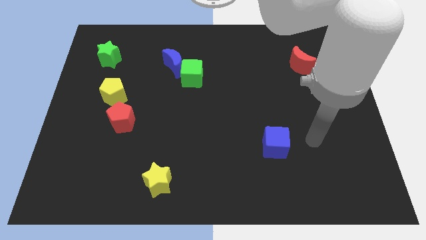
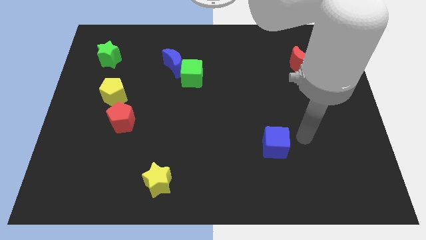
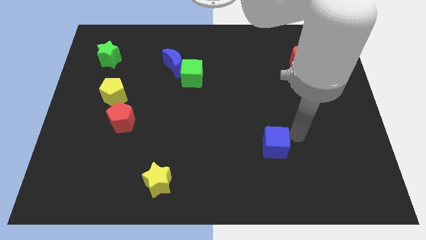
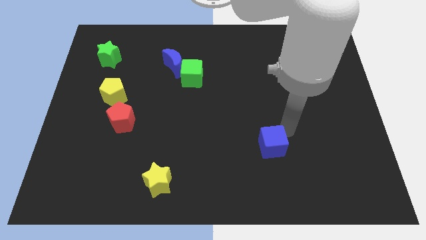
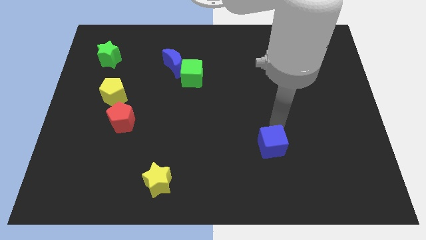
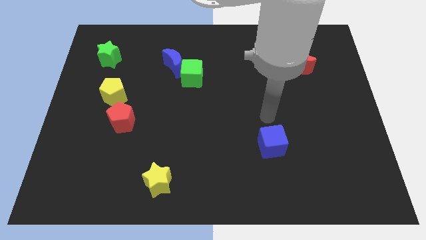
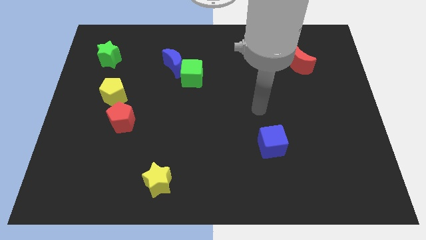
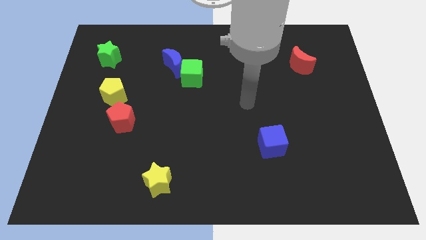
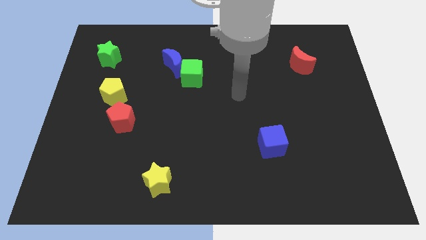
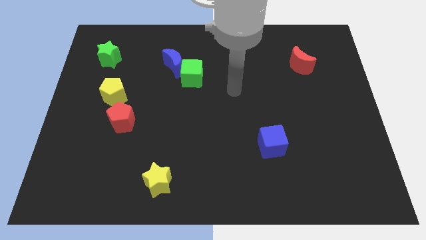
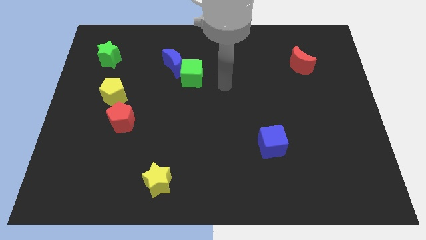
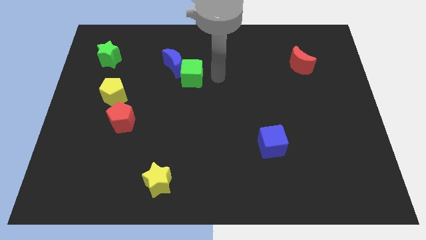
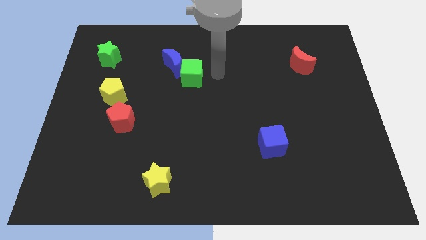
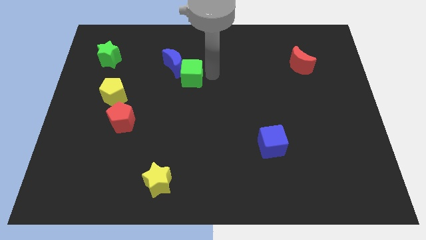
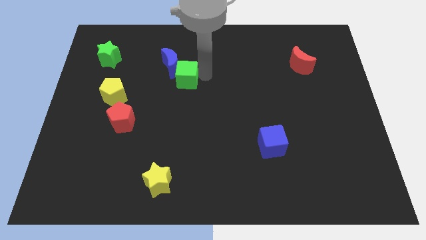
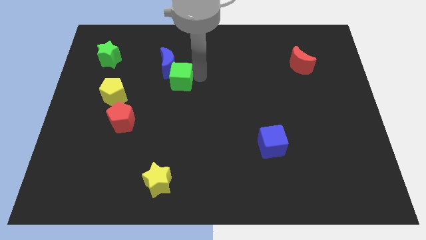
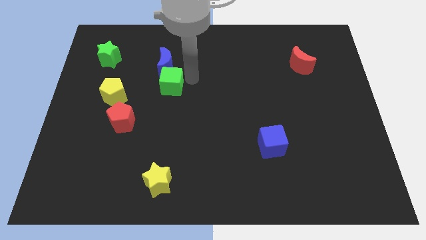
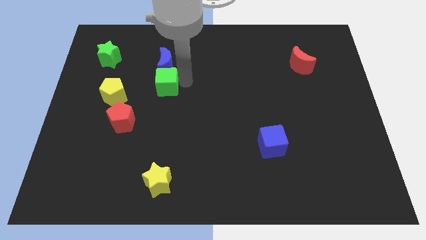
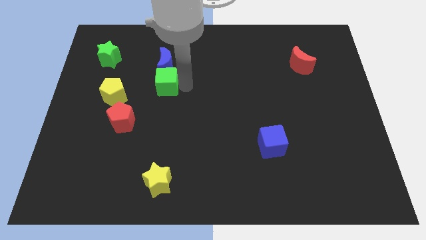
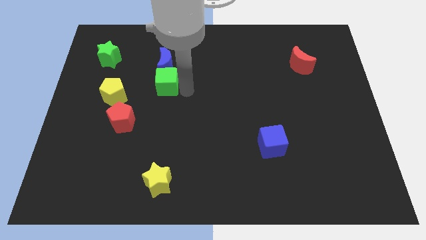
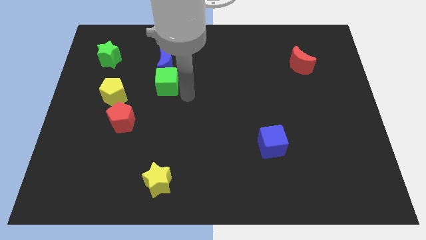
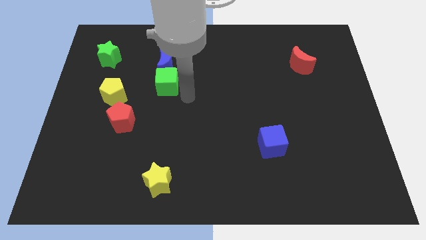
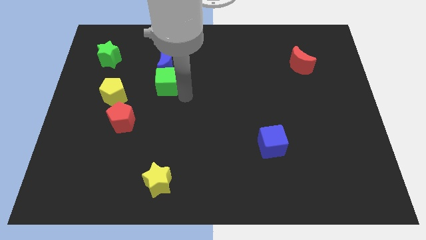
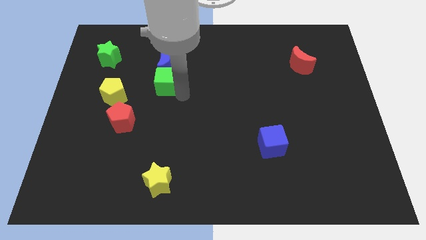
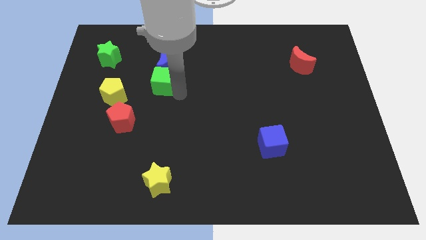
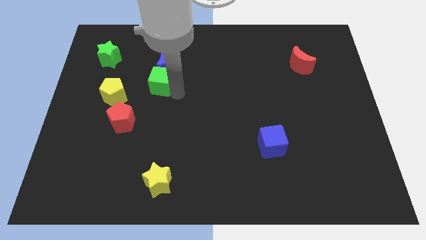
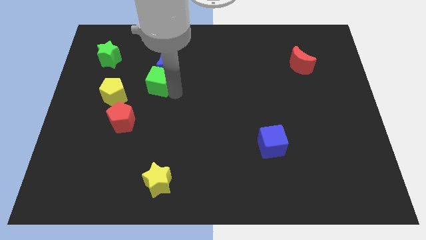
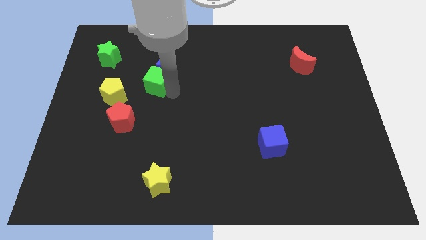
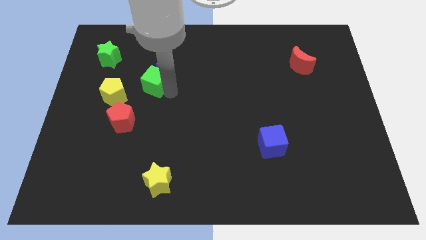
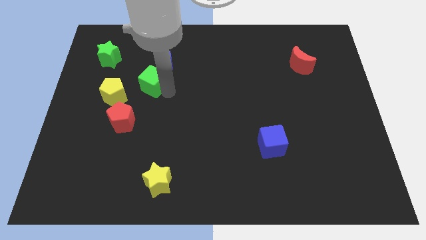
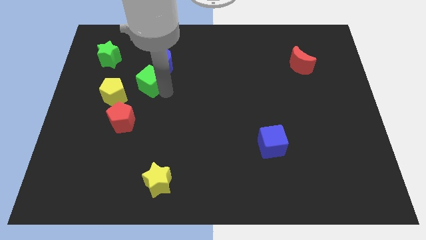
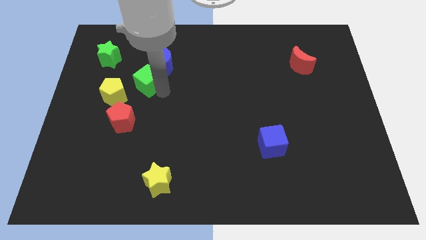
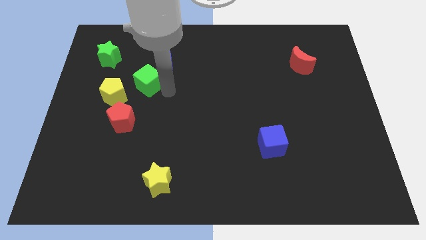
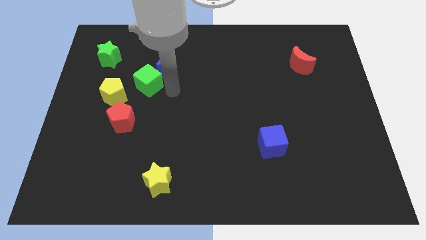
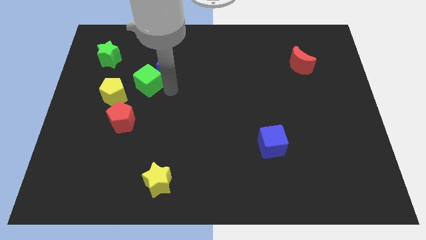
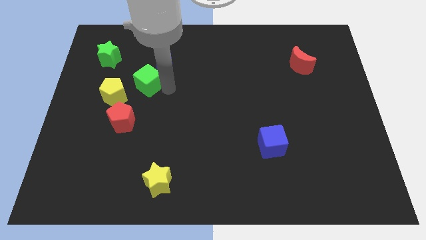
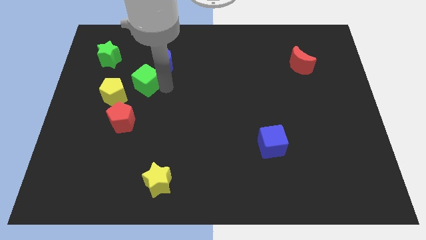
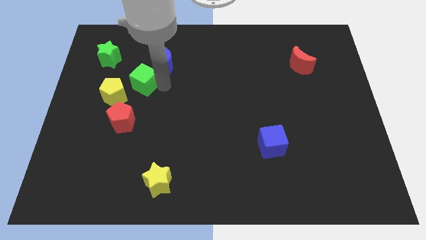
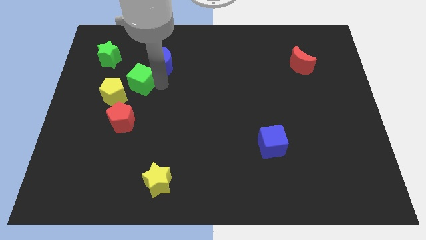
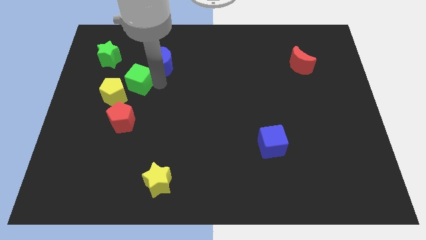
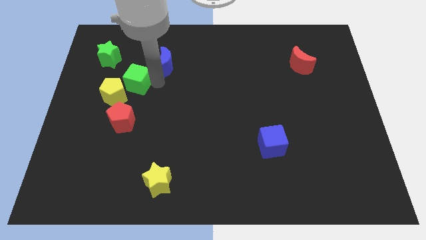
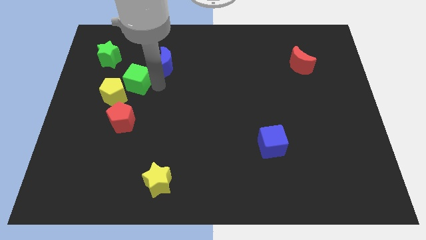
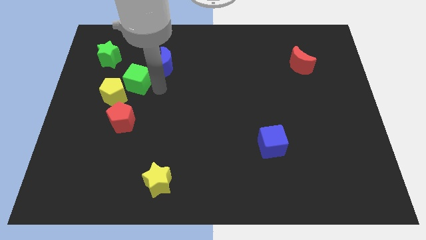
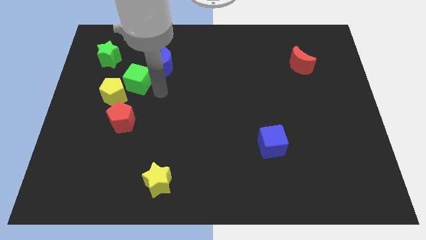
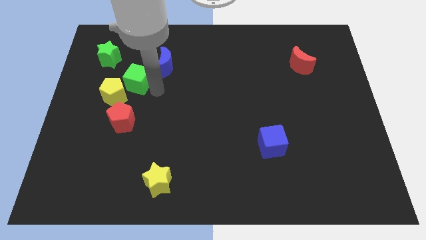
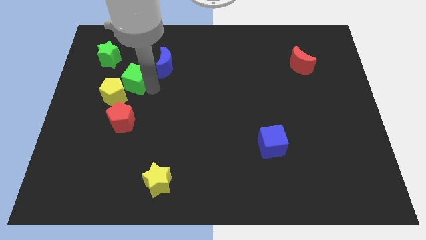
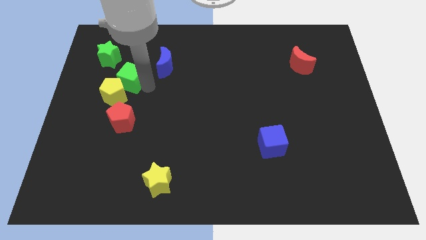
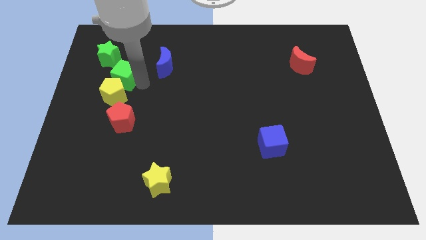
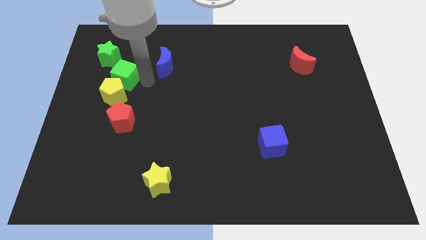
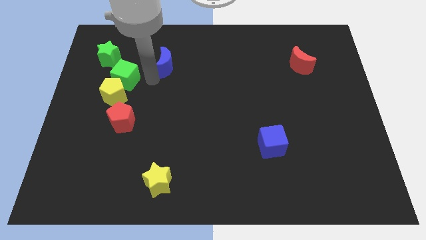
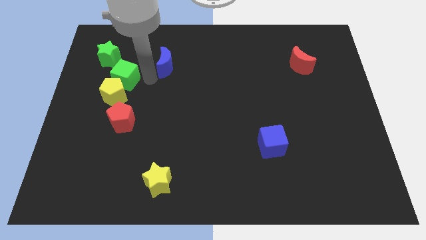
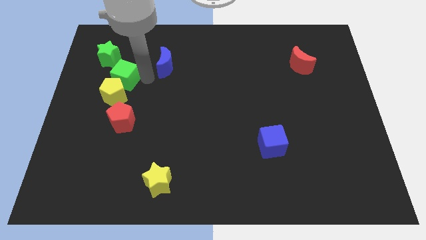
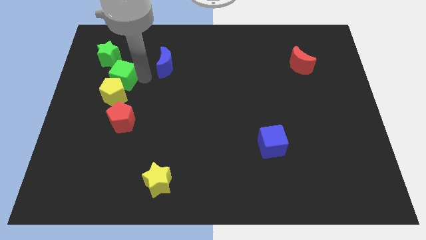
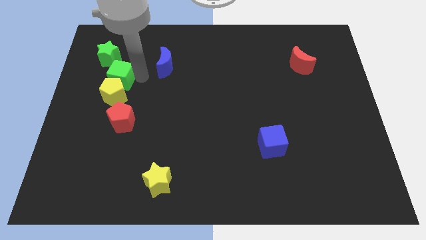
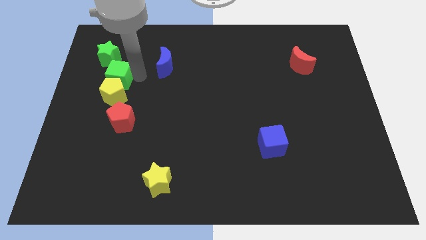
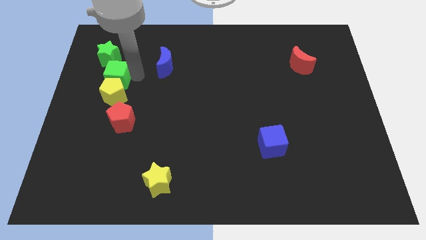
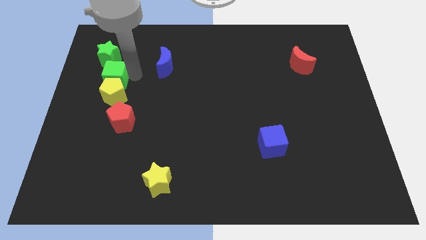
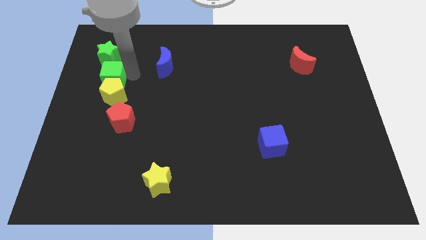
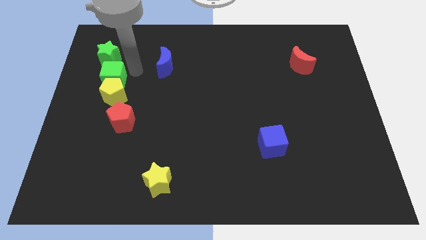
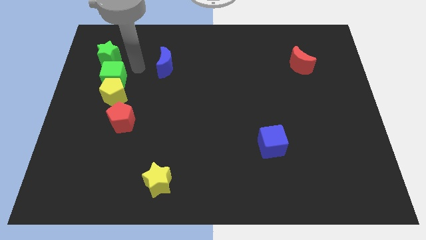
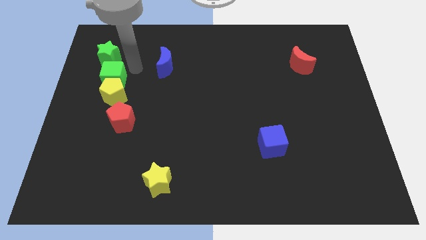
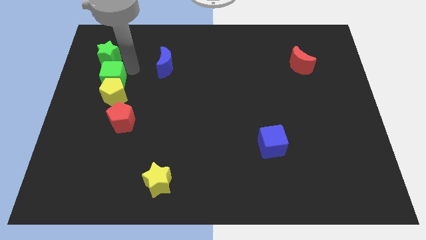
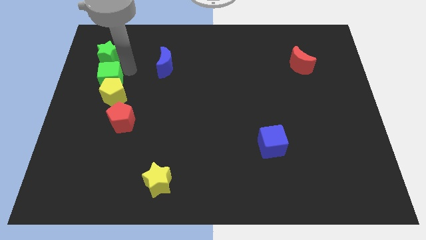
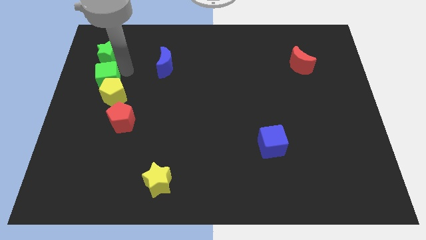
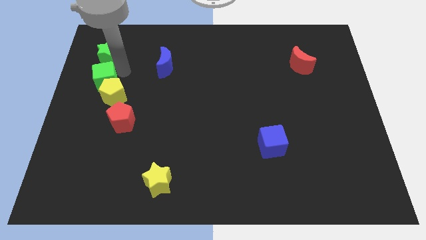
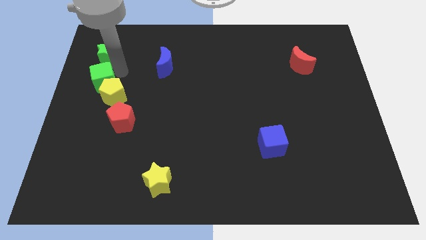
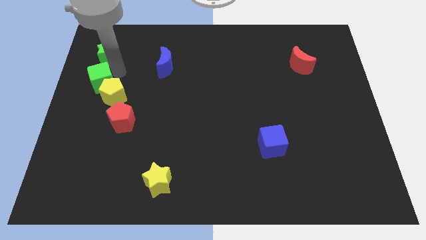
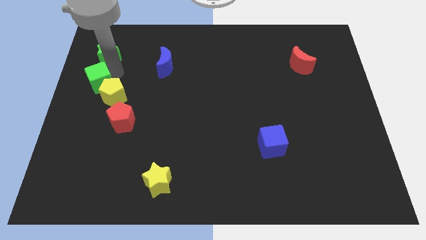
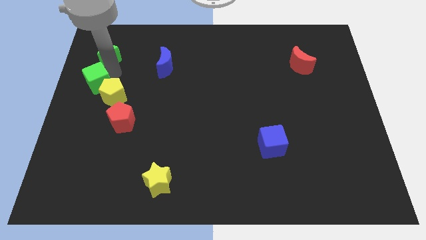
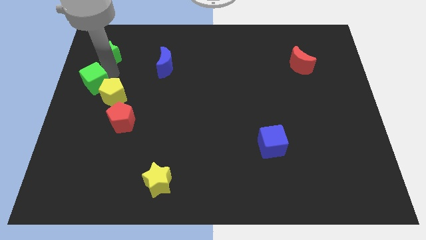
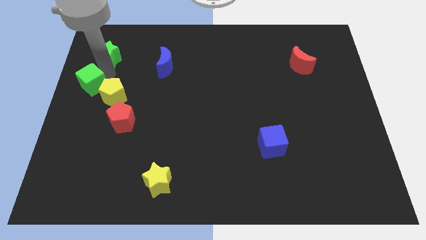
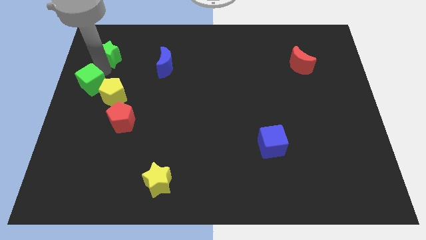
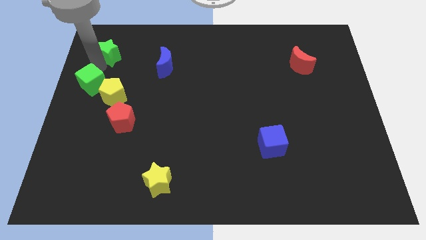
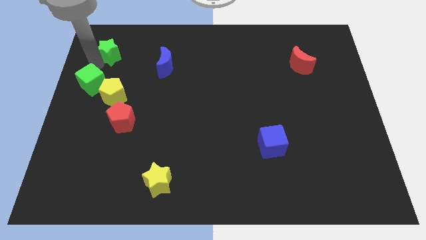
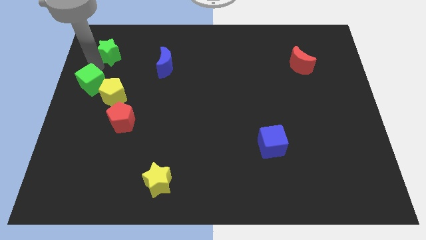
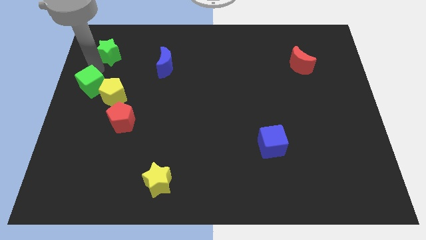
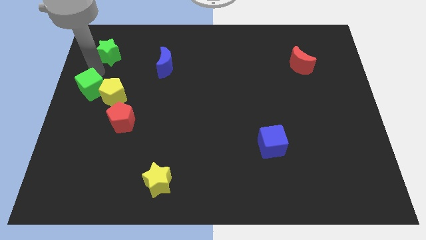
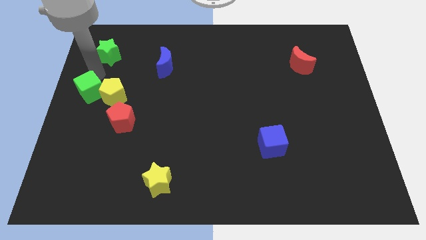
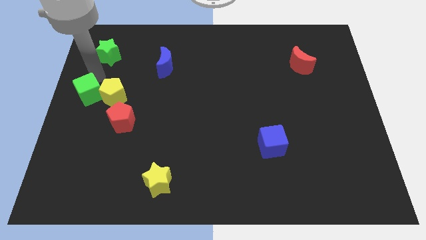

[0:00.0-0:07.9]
put the green cube diagonally down and to the left of the yellow pentagon
